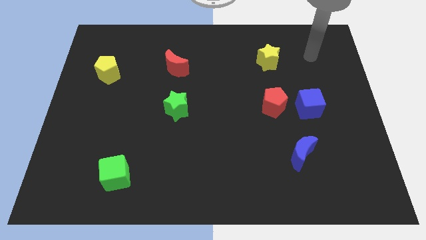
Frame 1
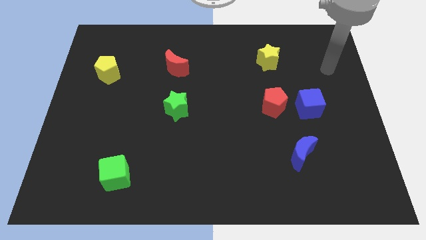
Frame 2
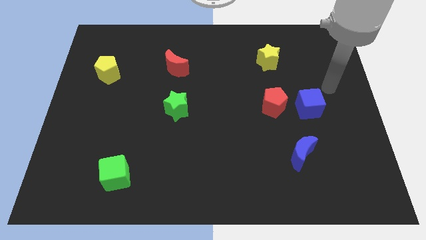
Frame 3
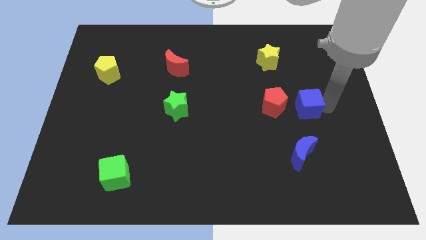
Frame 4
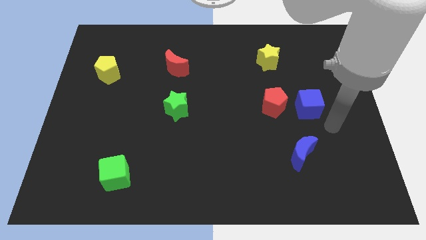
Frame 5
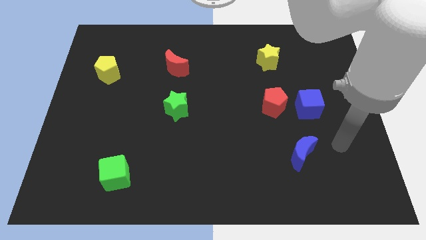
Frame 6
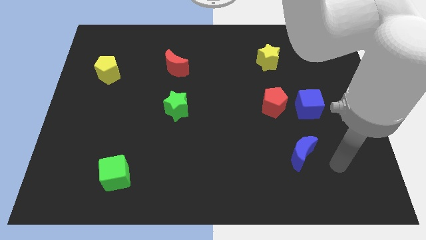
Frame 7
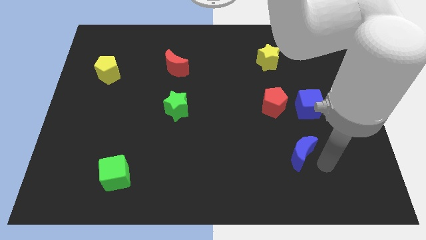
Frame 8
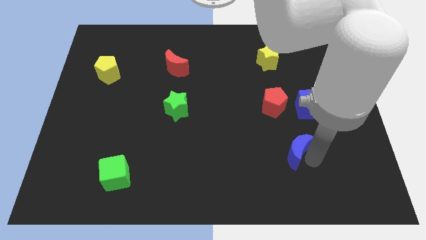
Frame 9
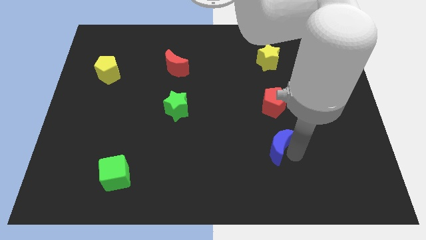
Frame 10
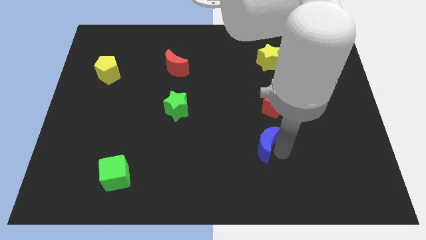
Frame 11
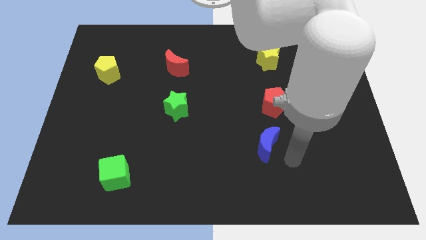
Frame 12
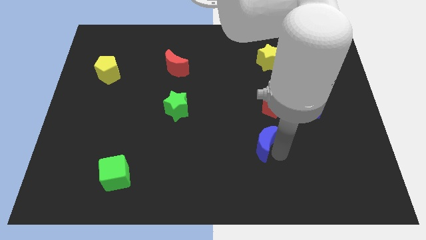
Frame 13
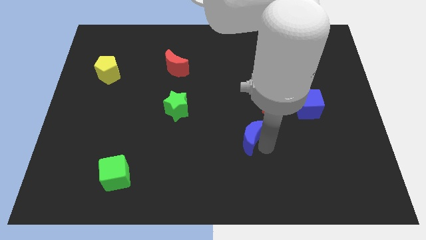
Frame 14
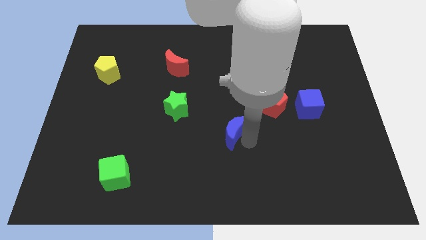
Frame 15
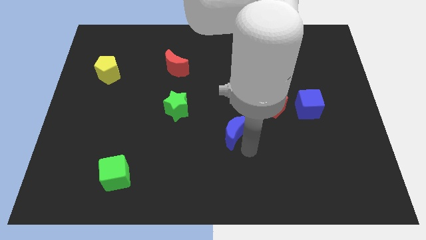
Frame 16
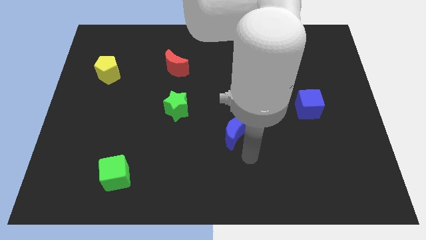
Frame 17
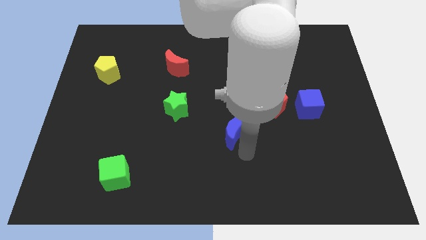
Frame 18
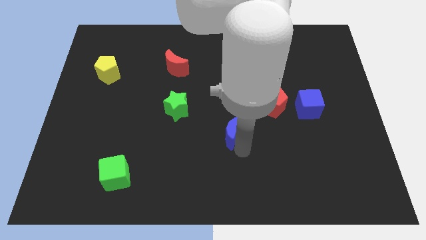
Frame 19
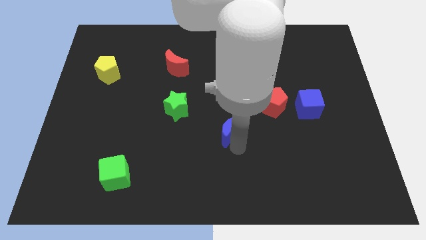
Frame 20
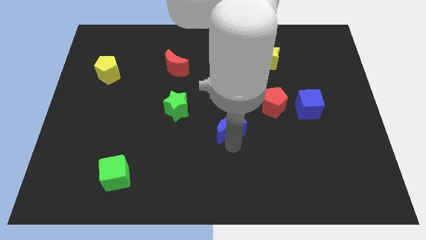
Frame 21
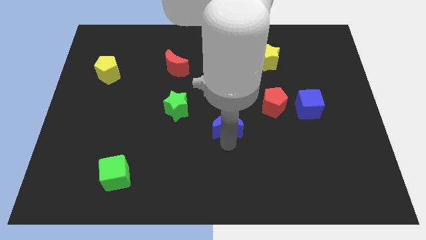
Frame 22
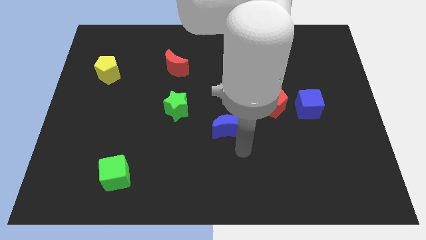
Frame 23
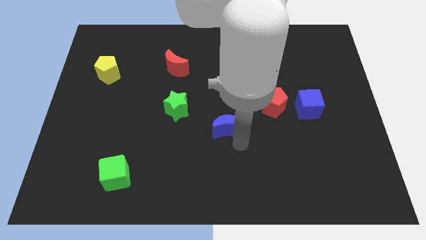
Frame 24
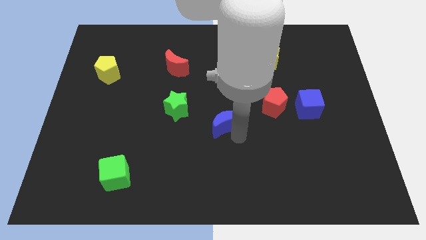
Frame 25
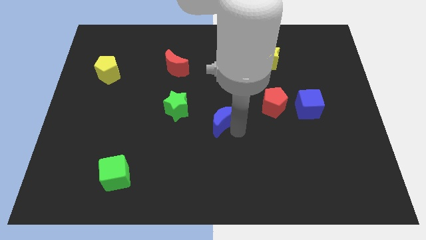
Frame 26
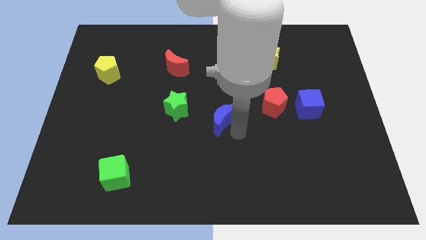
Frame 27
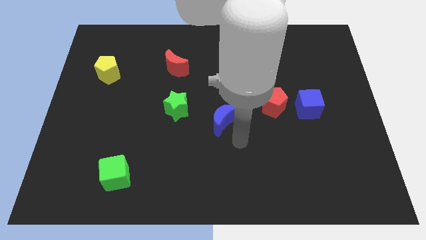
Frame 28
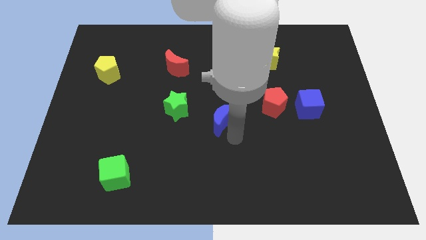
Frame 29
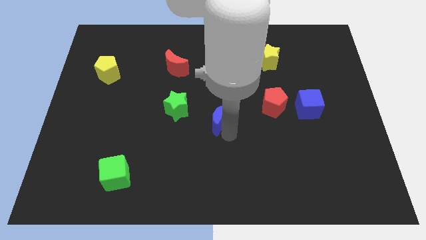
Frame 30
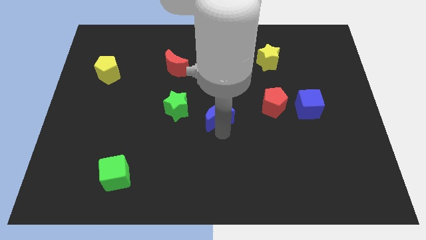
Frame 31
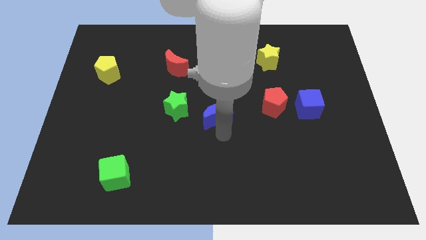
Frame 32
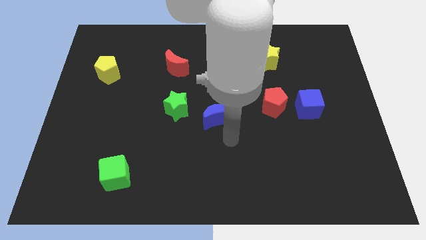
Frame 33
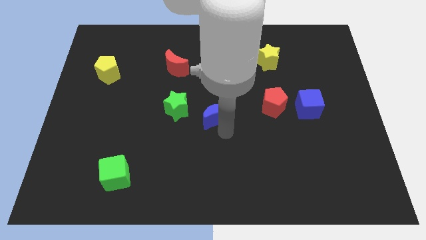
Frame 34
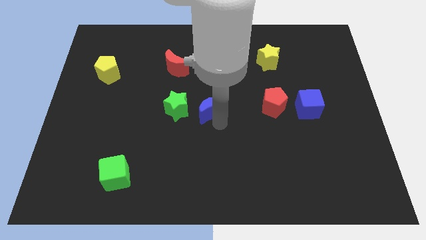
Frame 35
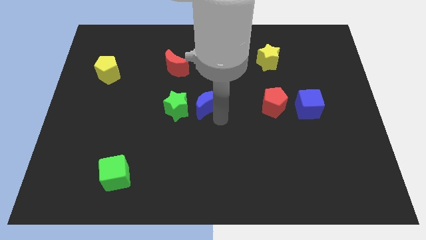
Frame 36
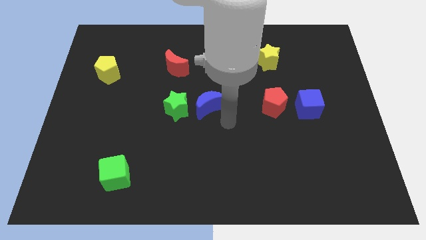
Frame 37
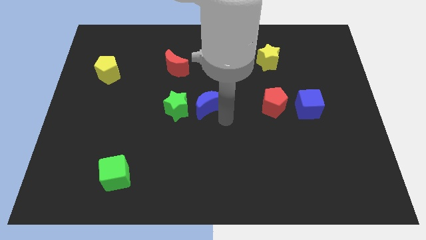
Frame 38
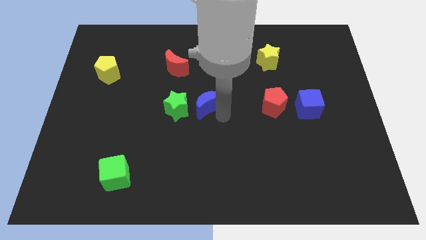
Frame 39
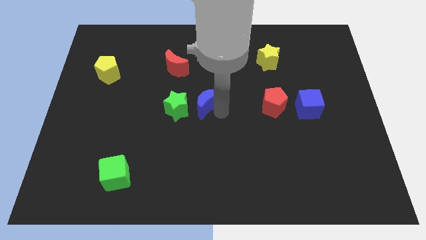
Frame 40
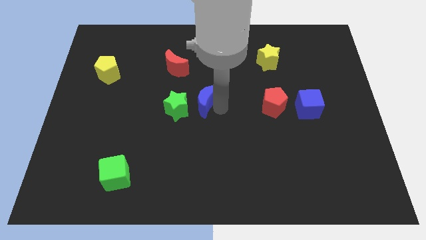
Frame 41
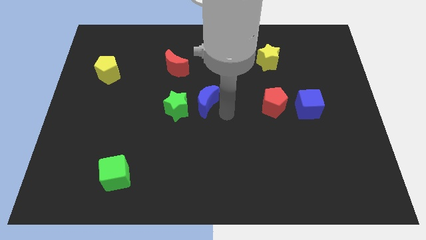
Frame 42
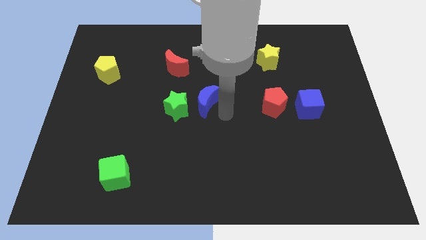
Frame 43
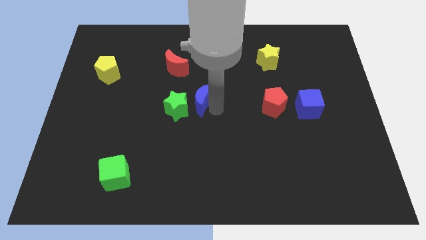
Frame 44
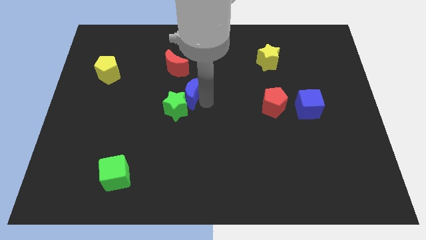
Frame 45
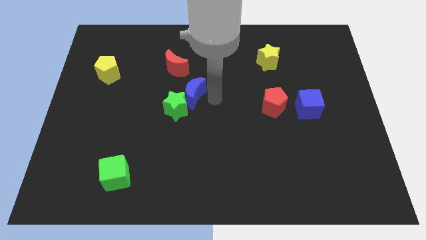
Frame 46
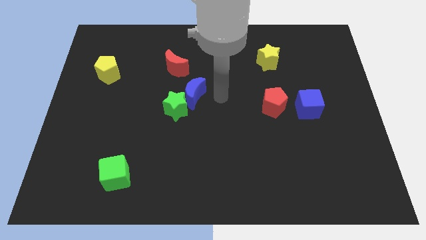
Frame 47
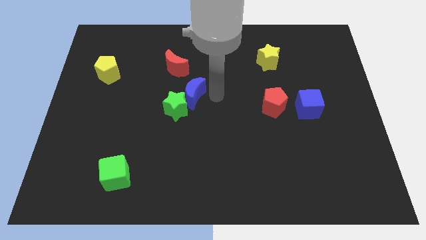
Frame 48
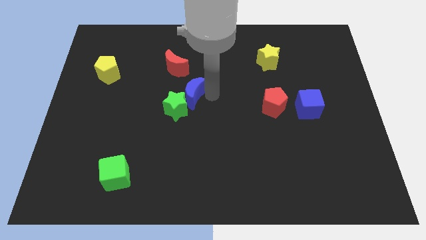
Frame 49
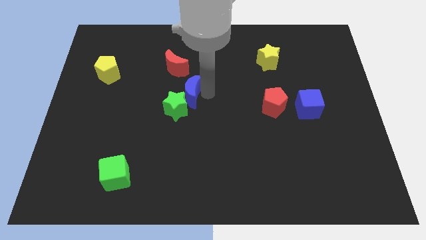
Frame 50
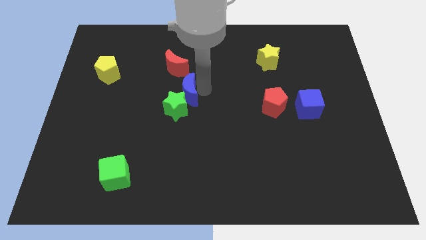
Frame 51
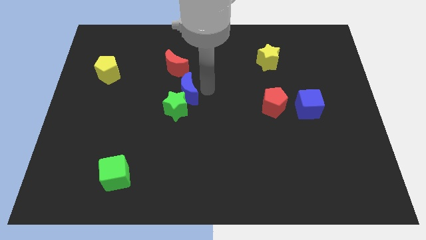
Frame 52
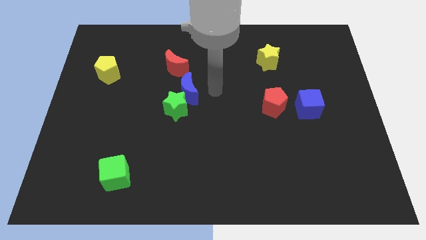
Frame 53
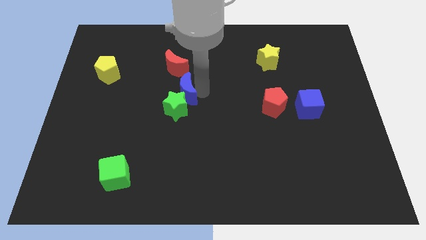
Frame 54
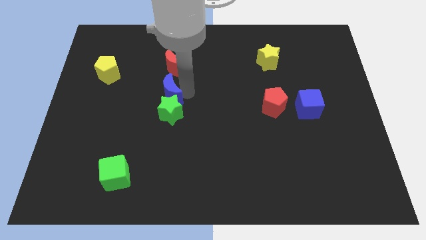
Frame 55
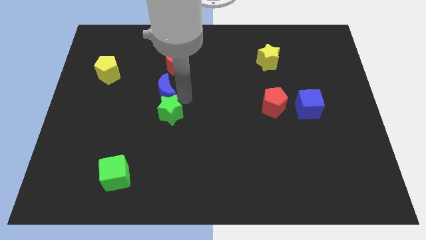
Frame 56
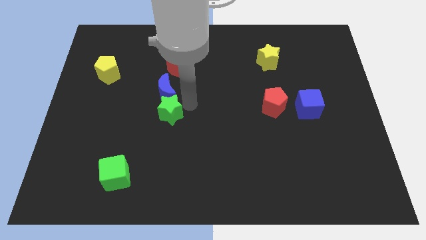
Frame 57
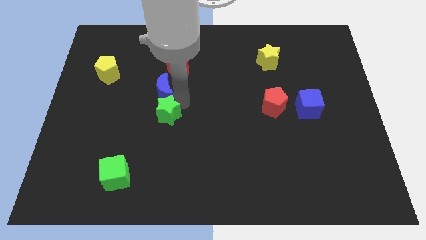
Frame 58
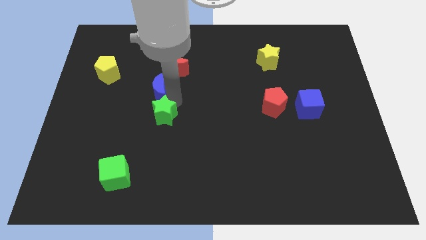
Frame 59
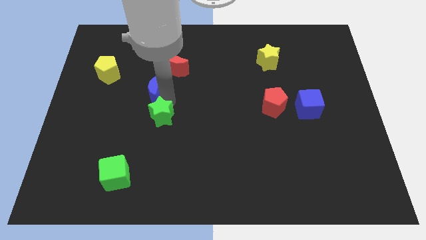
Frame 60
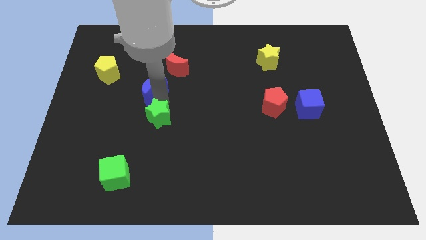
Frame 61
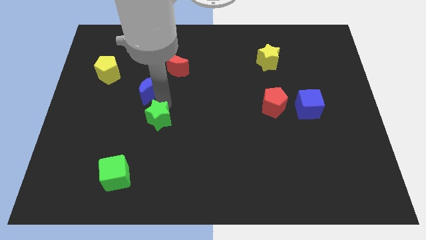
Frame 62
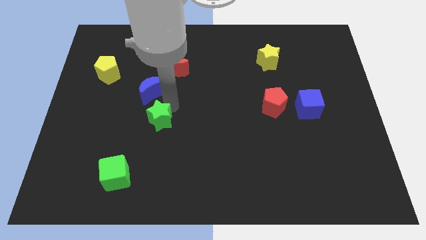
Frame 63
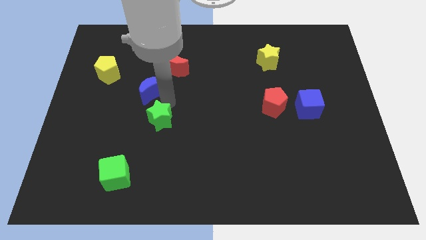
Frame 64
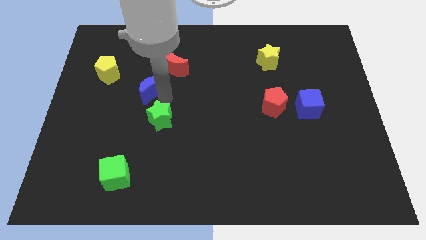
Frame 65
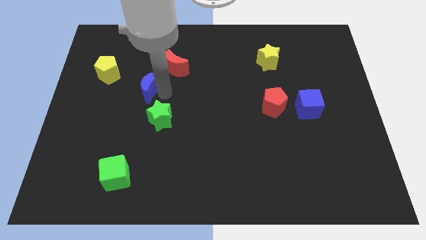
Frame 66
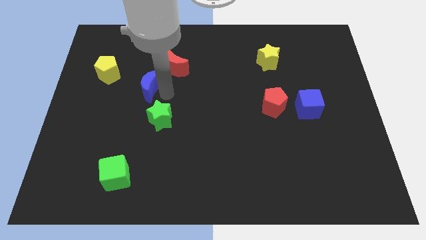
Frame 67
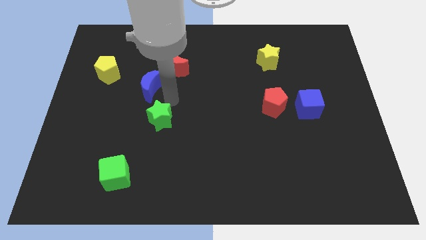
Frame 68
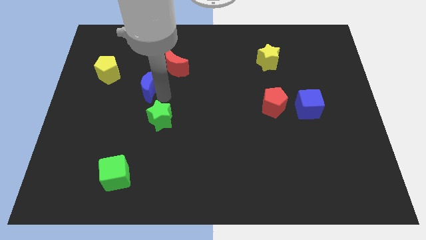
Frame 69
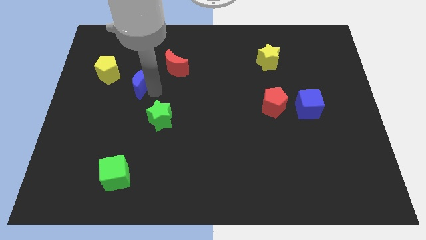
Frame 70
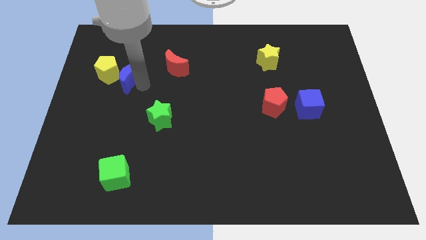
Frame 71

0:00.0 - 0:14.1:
push the blue moon towards the yellow pentagon
